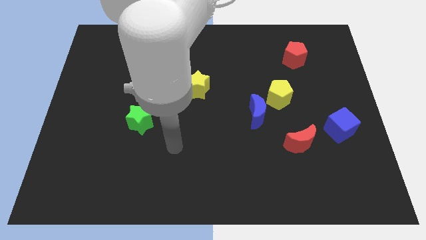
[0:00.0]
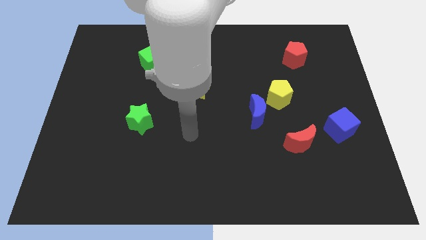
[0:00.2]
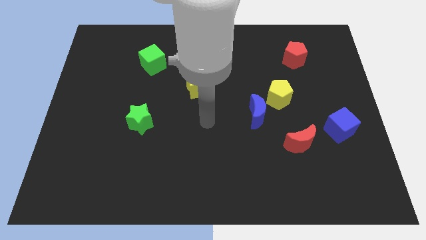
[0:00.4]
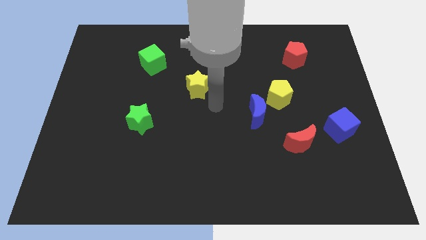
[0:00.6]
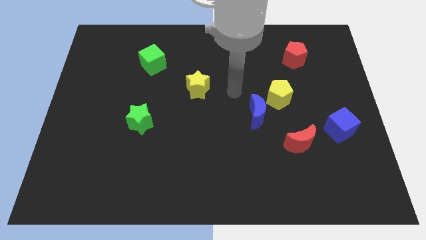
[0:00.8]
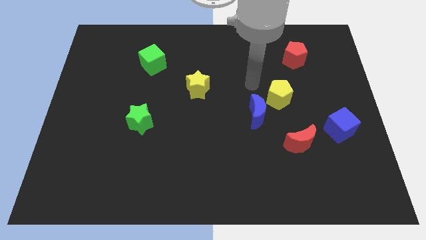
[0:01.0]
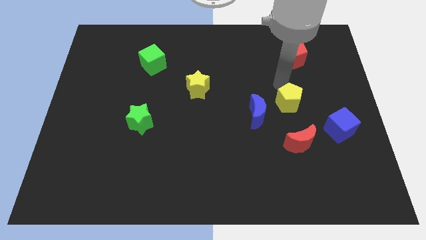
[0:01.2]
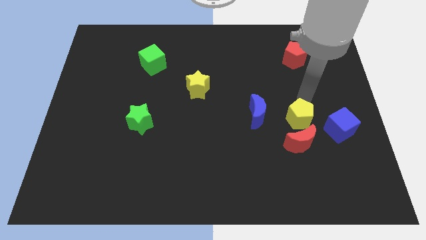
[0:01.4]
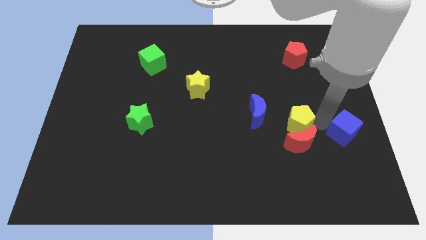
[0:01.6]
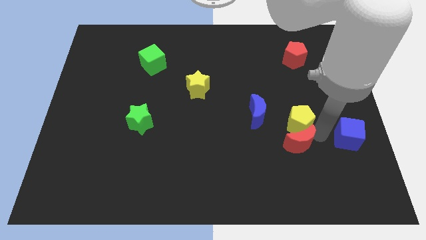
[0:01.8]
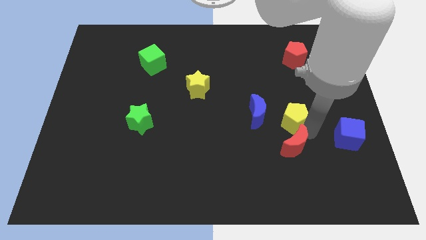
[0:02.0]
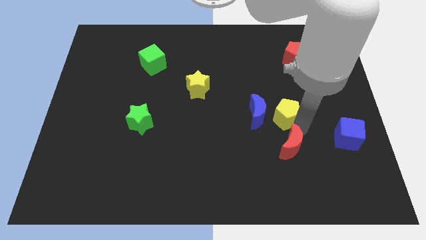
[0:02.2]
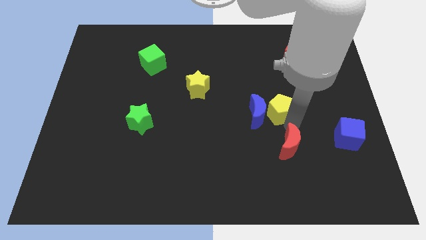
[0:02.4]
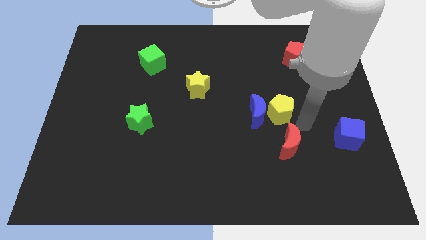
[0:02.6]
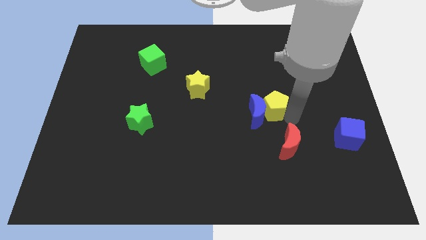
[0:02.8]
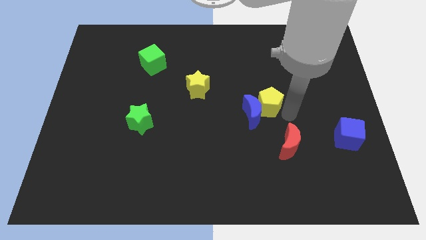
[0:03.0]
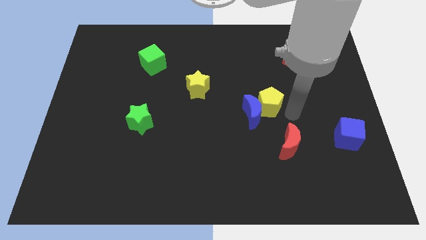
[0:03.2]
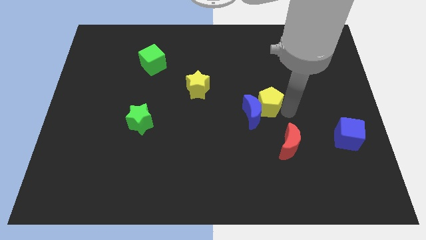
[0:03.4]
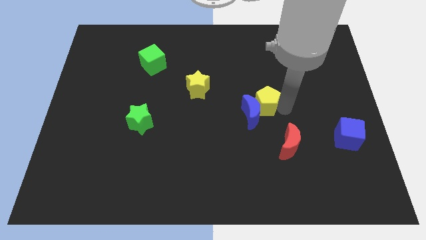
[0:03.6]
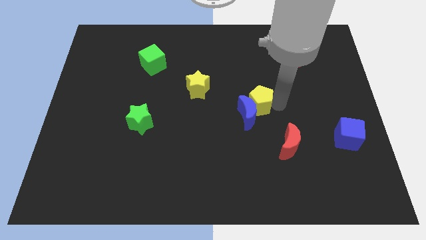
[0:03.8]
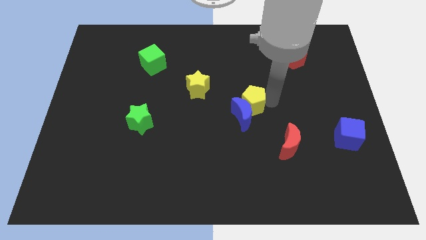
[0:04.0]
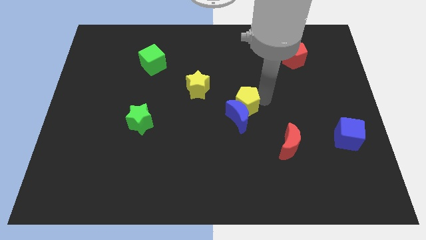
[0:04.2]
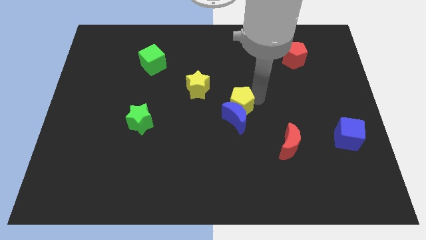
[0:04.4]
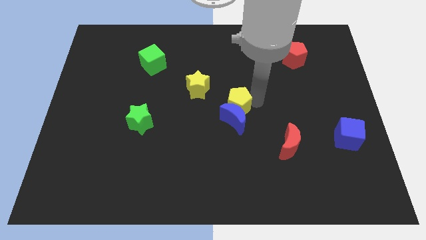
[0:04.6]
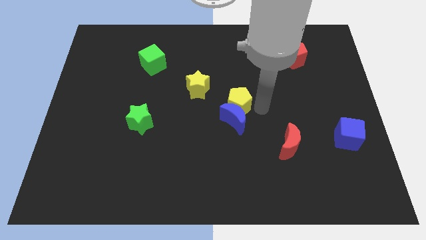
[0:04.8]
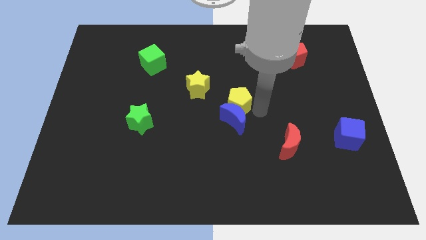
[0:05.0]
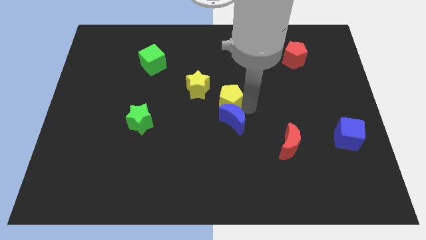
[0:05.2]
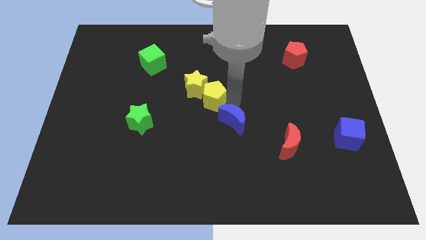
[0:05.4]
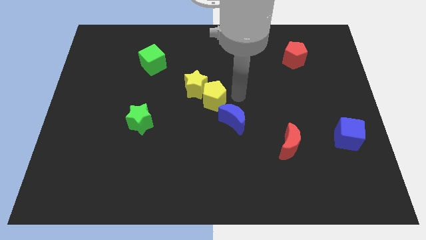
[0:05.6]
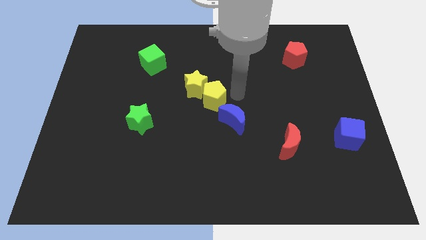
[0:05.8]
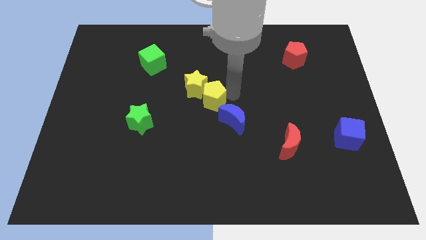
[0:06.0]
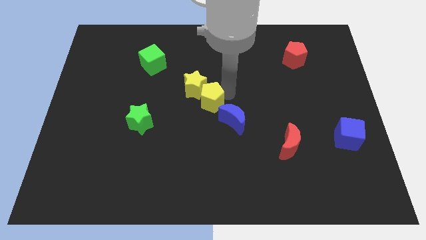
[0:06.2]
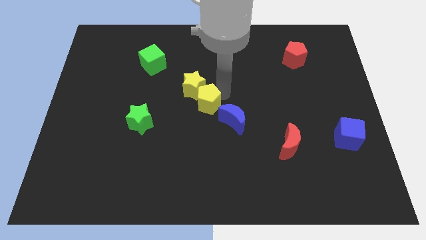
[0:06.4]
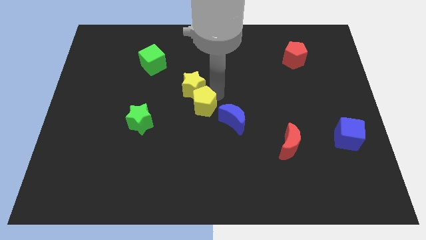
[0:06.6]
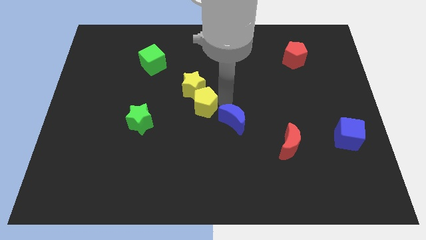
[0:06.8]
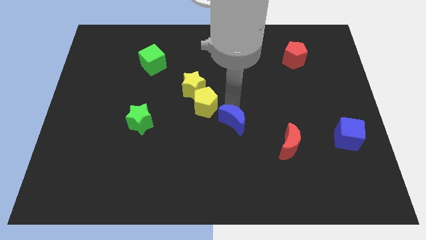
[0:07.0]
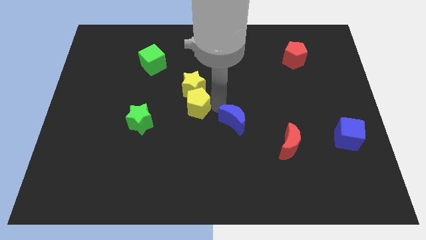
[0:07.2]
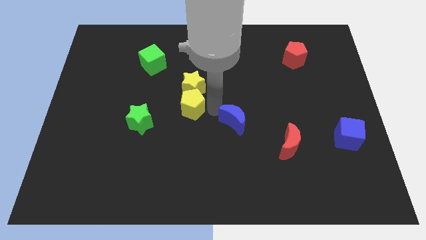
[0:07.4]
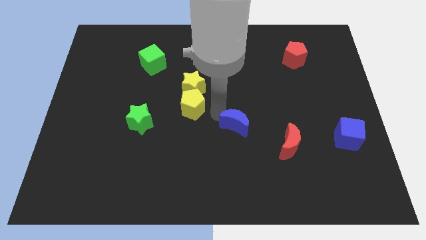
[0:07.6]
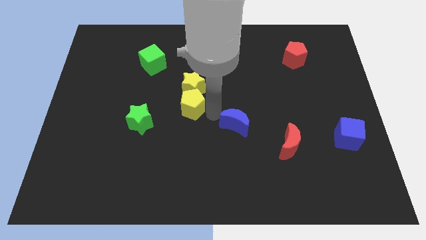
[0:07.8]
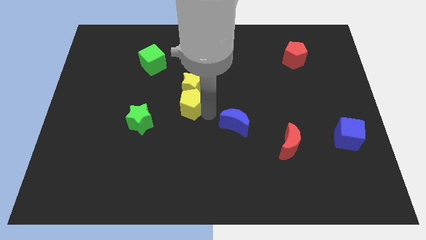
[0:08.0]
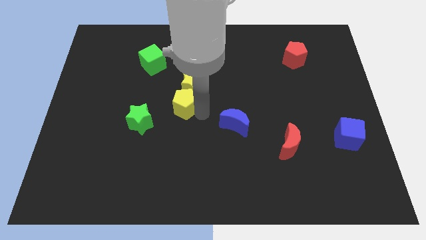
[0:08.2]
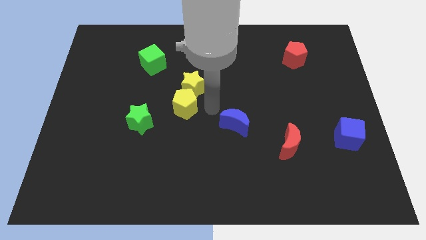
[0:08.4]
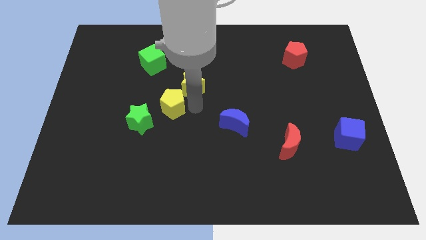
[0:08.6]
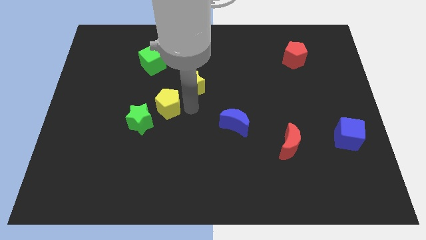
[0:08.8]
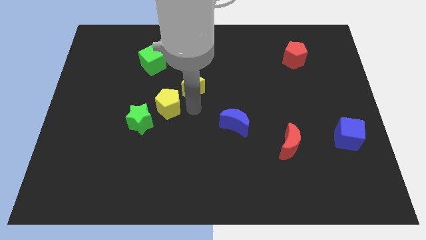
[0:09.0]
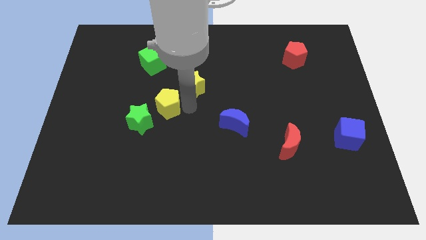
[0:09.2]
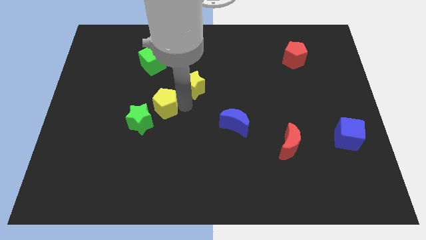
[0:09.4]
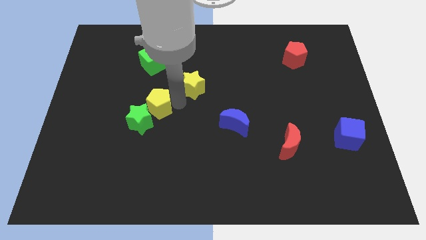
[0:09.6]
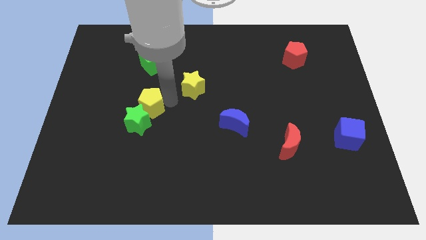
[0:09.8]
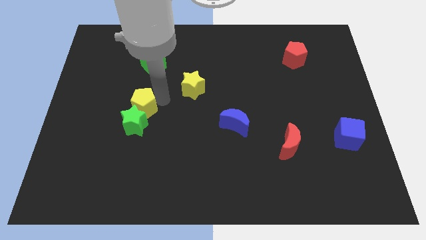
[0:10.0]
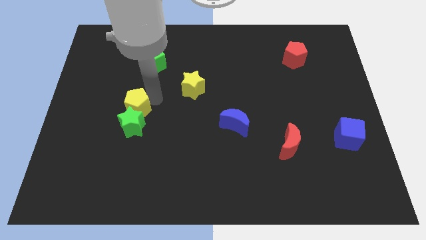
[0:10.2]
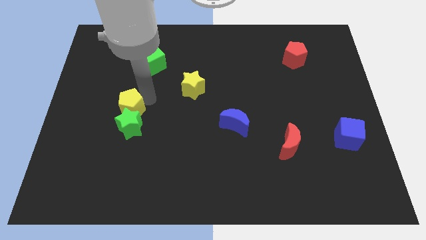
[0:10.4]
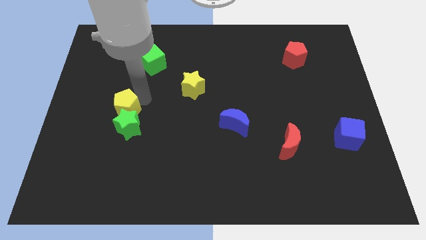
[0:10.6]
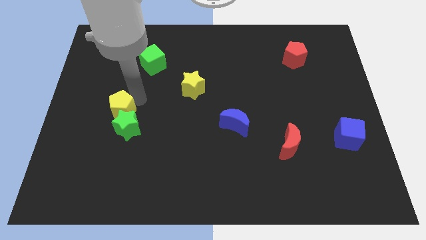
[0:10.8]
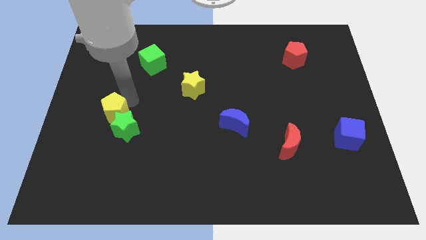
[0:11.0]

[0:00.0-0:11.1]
move the yellow pentagon left of the green star

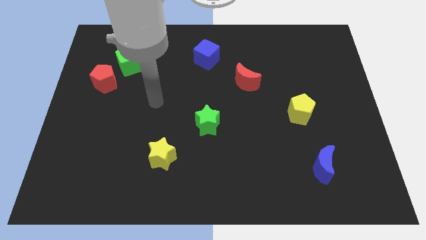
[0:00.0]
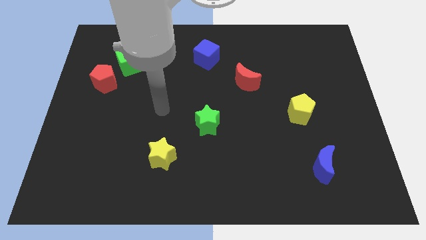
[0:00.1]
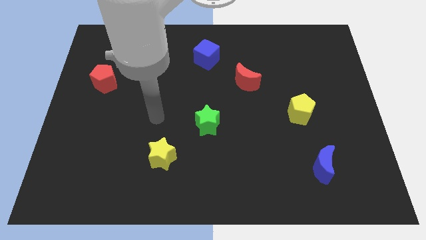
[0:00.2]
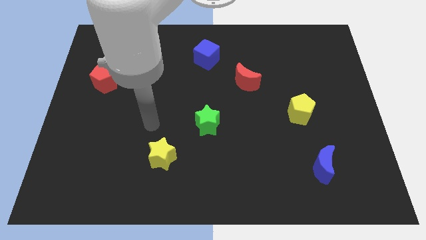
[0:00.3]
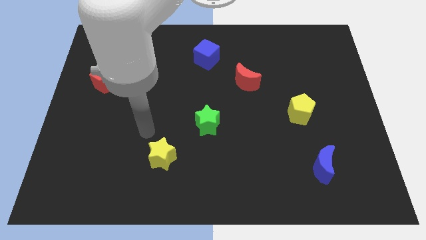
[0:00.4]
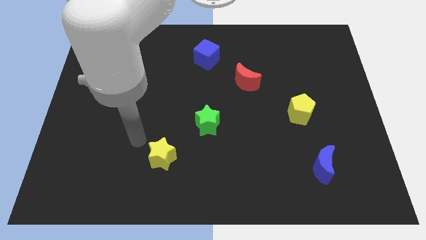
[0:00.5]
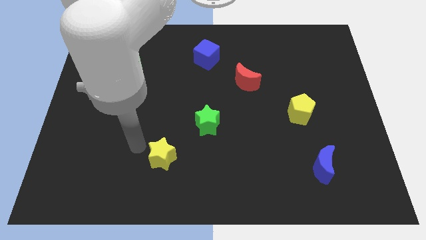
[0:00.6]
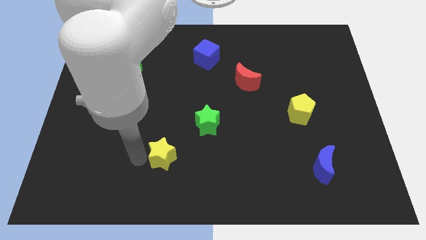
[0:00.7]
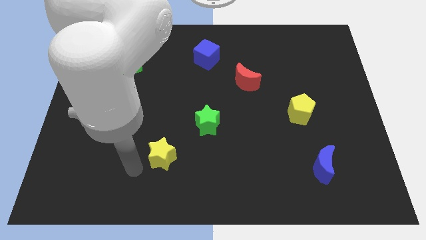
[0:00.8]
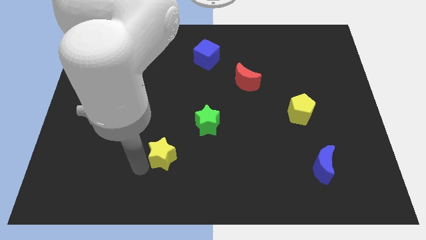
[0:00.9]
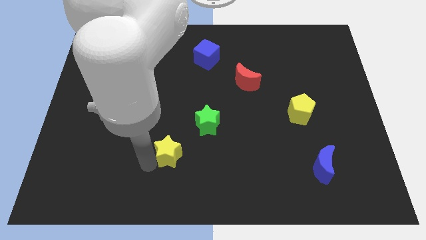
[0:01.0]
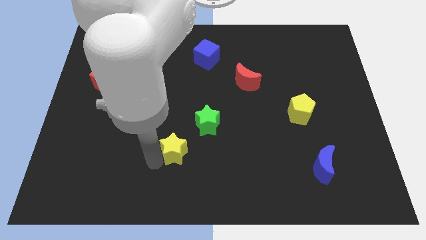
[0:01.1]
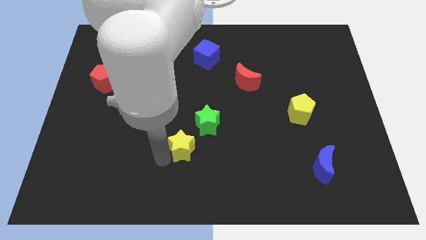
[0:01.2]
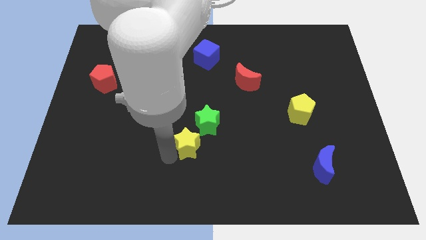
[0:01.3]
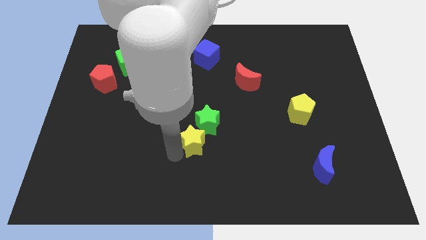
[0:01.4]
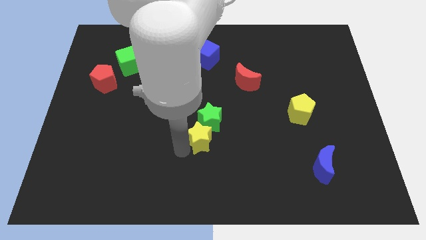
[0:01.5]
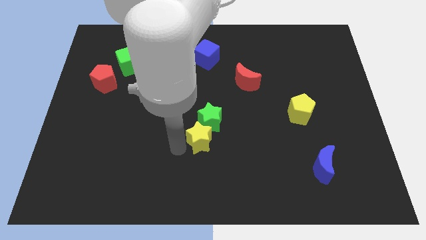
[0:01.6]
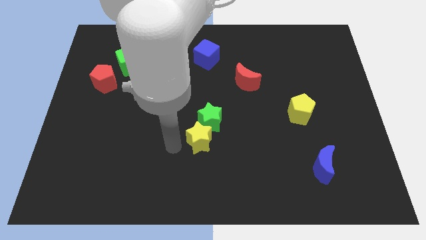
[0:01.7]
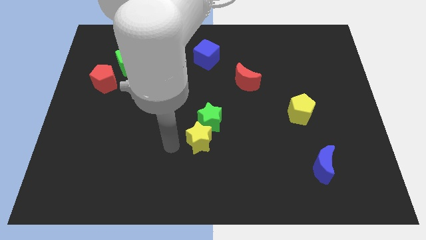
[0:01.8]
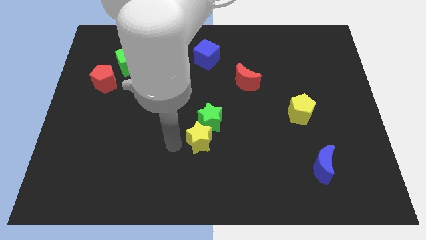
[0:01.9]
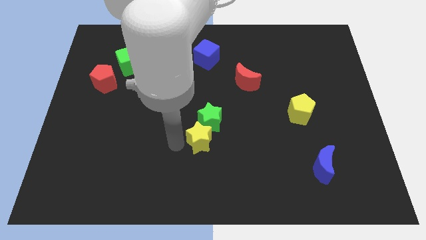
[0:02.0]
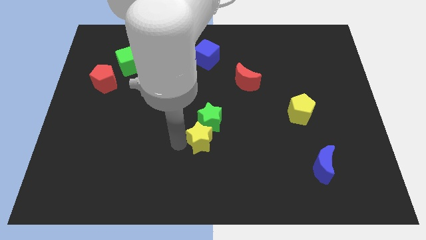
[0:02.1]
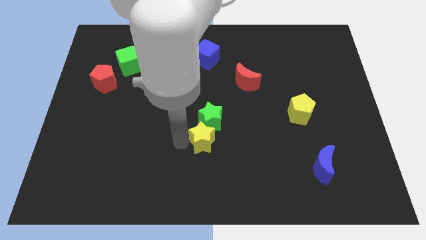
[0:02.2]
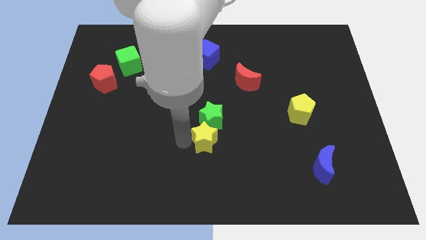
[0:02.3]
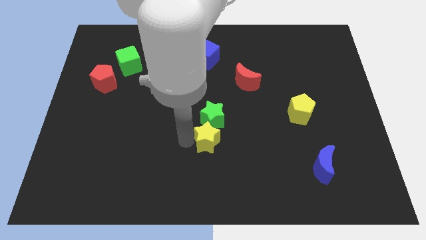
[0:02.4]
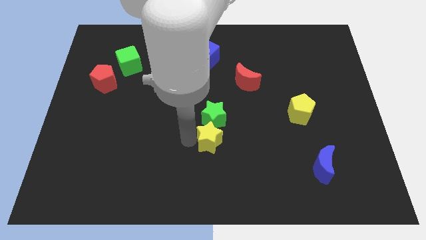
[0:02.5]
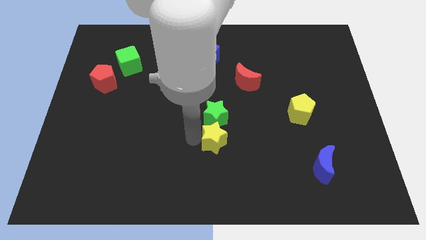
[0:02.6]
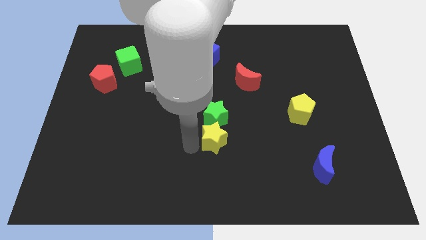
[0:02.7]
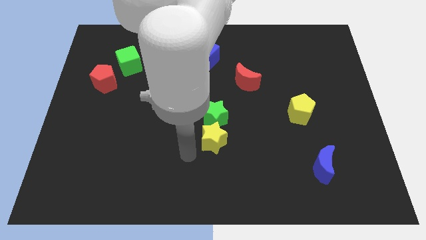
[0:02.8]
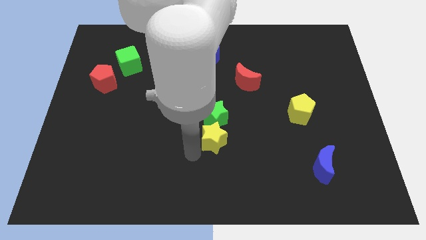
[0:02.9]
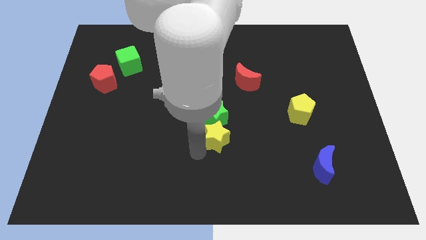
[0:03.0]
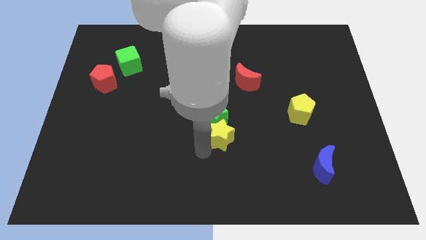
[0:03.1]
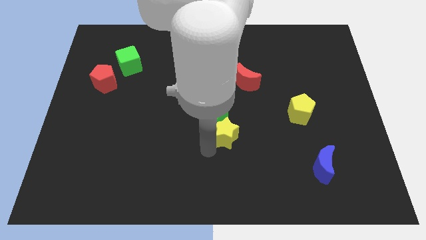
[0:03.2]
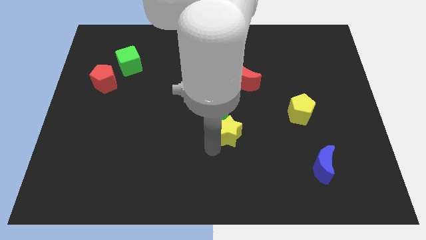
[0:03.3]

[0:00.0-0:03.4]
push the yellow star just right of the green star
